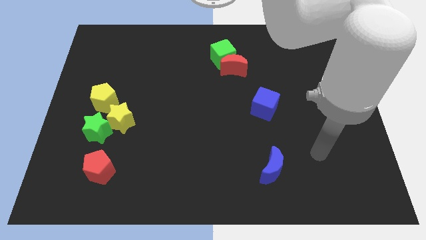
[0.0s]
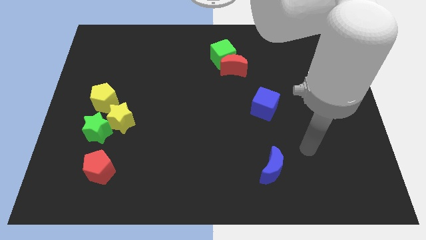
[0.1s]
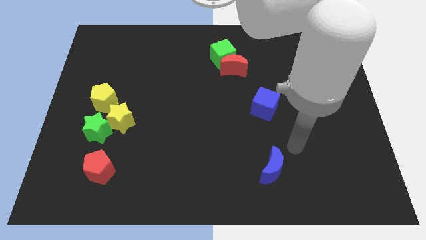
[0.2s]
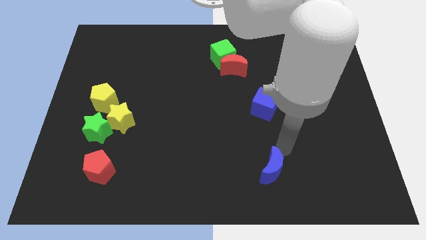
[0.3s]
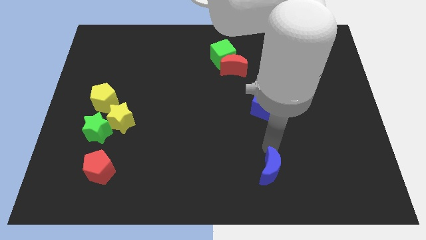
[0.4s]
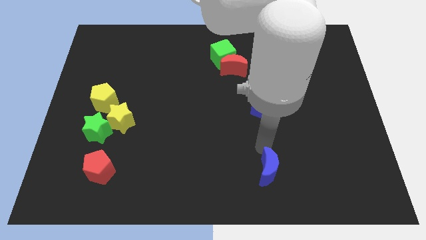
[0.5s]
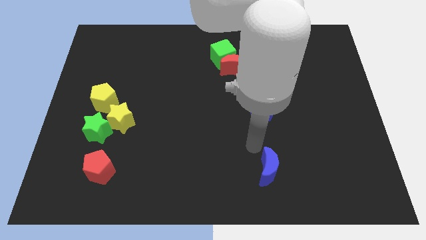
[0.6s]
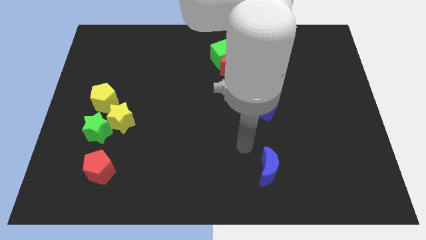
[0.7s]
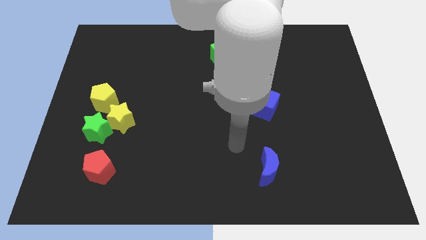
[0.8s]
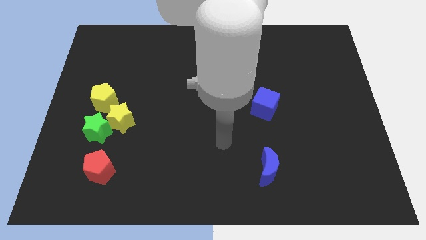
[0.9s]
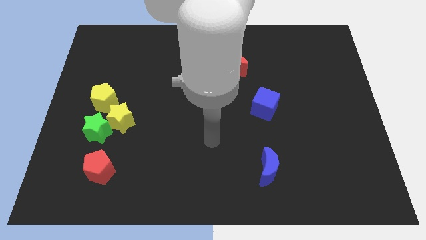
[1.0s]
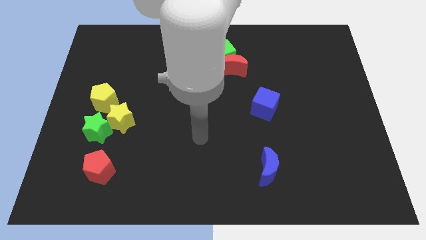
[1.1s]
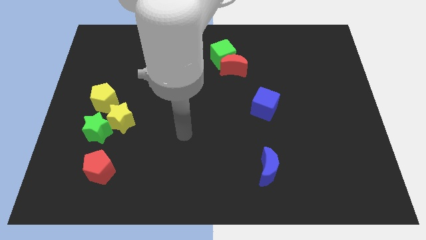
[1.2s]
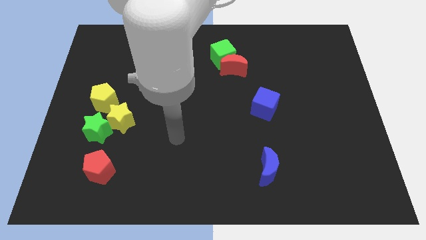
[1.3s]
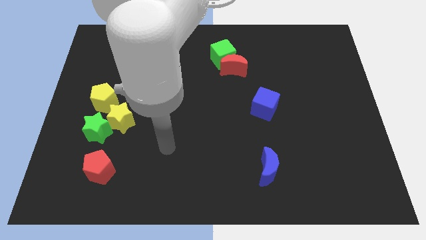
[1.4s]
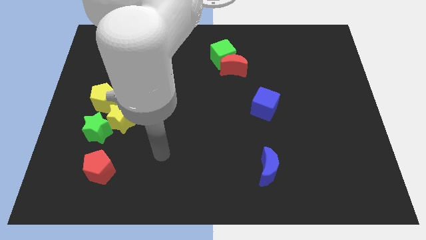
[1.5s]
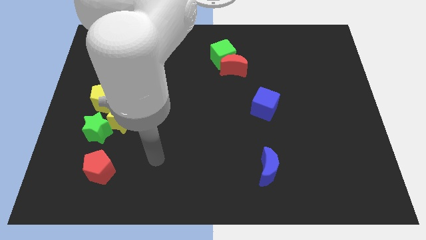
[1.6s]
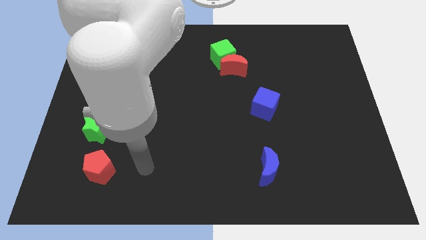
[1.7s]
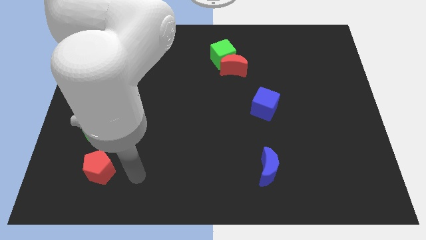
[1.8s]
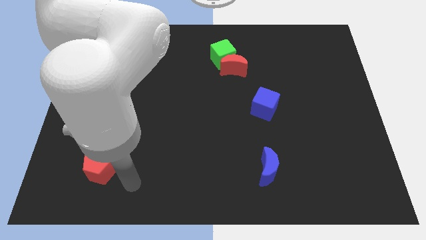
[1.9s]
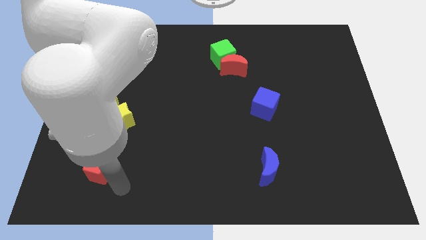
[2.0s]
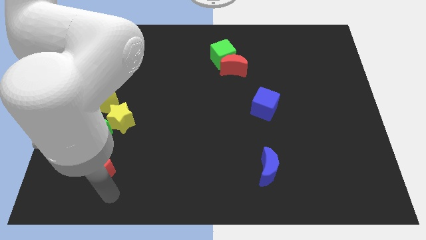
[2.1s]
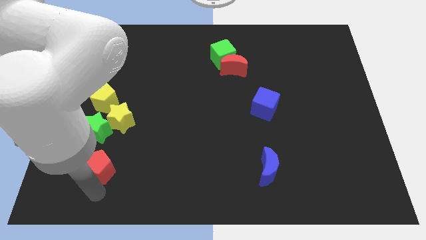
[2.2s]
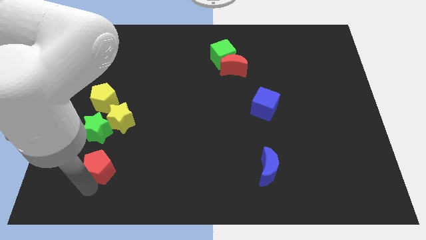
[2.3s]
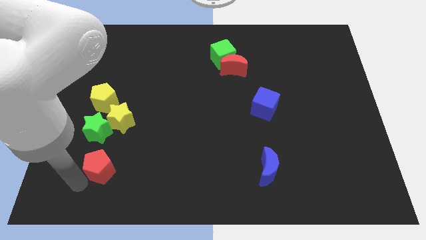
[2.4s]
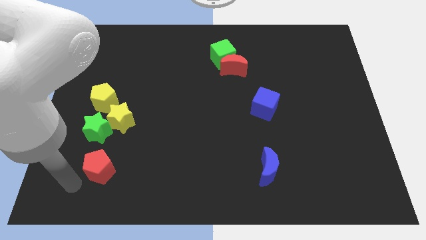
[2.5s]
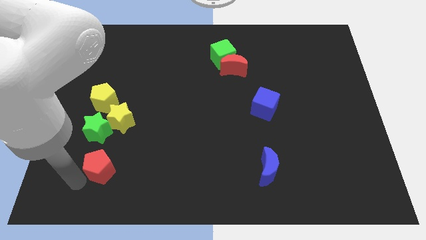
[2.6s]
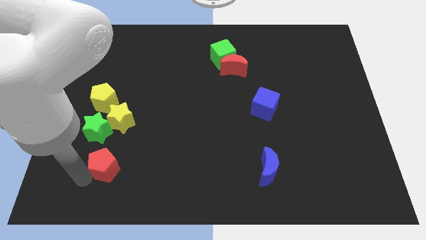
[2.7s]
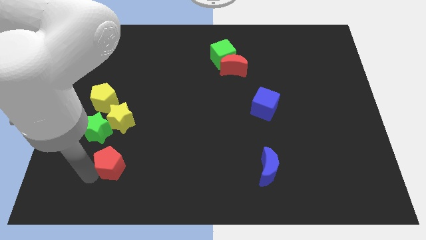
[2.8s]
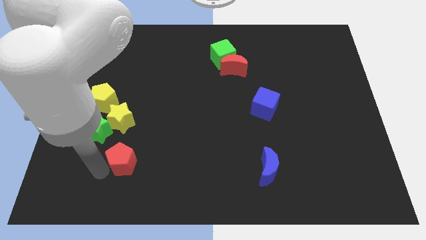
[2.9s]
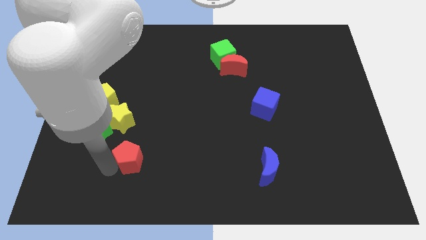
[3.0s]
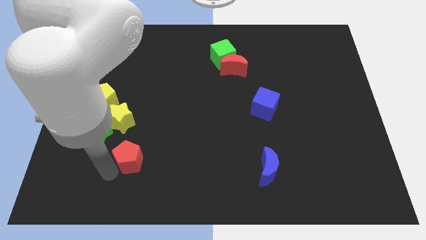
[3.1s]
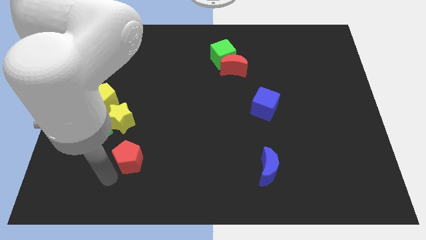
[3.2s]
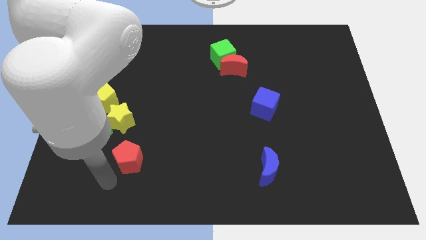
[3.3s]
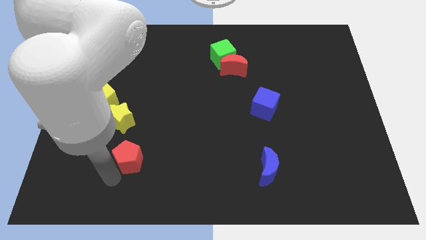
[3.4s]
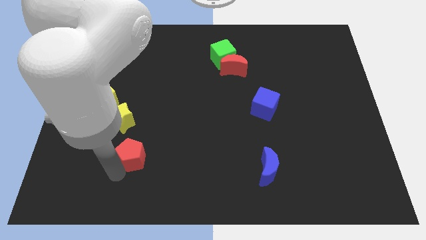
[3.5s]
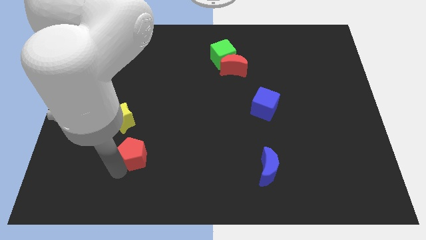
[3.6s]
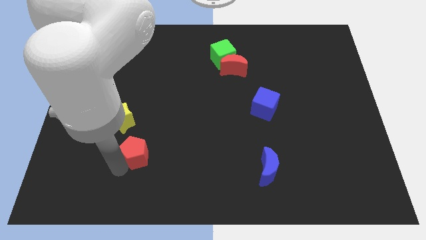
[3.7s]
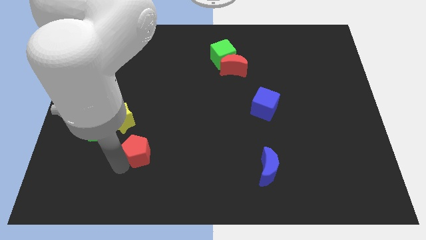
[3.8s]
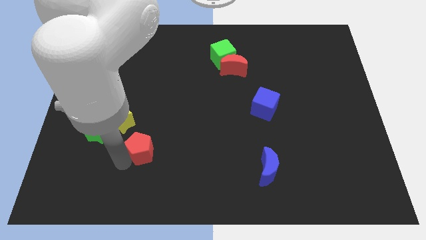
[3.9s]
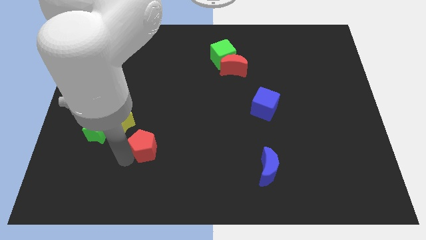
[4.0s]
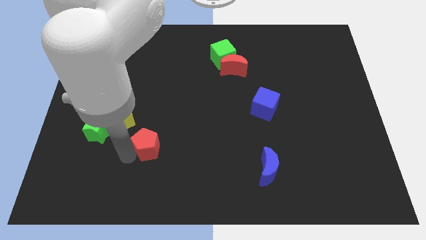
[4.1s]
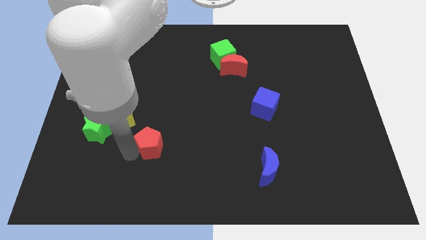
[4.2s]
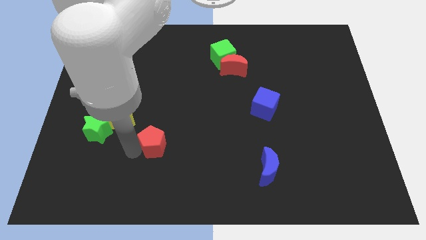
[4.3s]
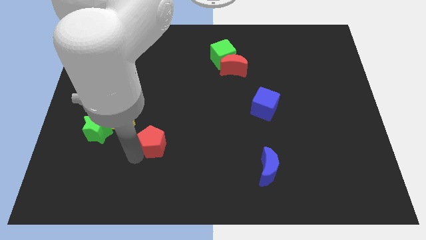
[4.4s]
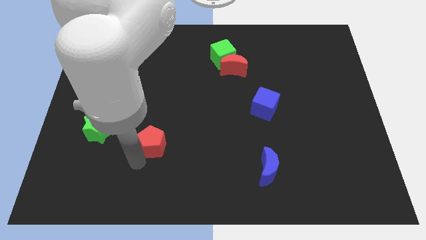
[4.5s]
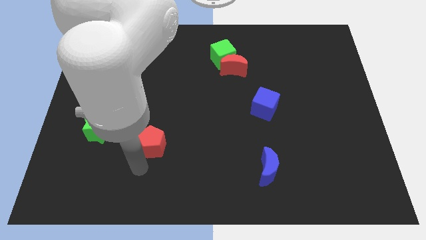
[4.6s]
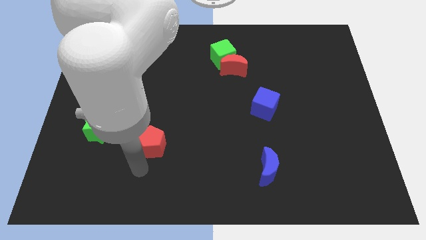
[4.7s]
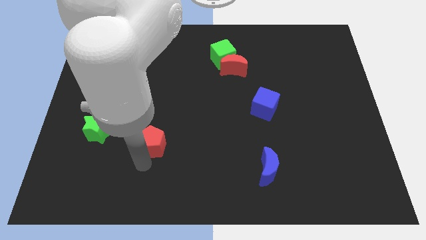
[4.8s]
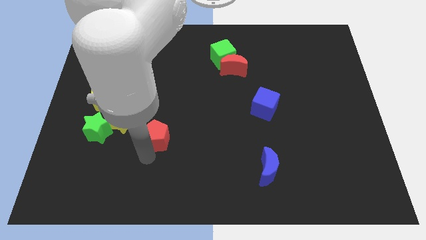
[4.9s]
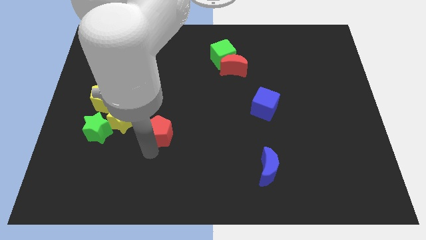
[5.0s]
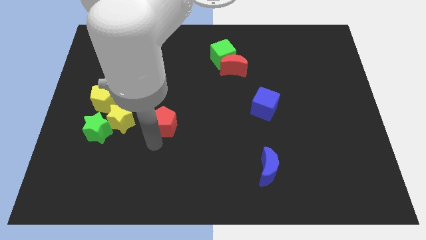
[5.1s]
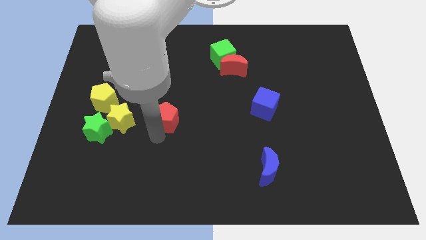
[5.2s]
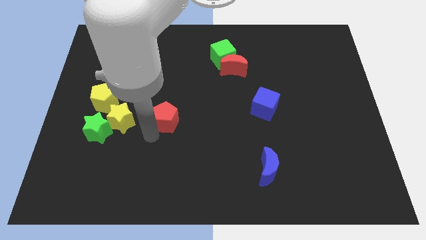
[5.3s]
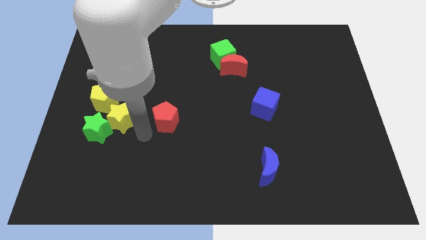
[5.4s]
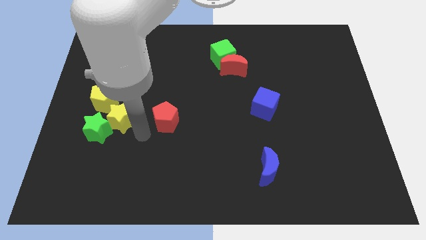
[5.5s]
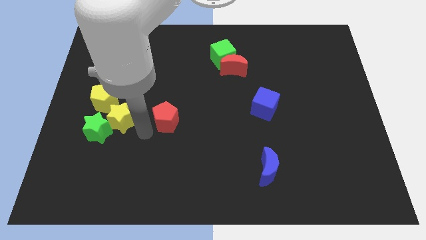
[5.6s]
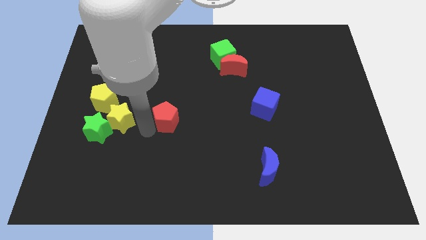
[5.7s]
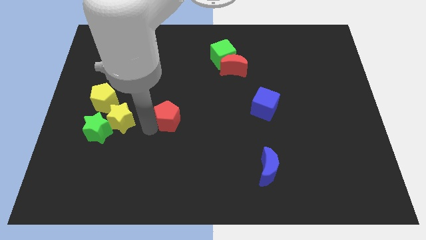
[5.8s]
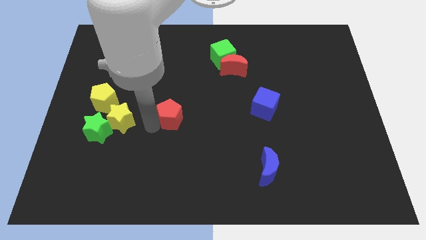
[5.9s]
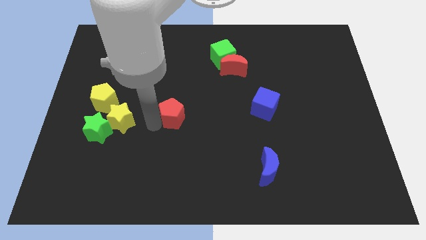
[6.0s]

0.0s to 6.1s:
push the red pentagon up and to the right

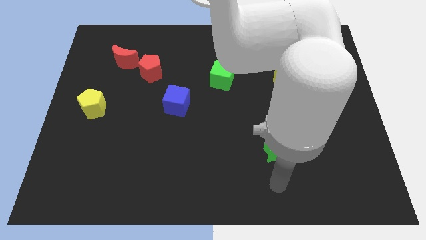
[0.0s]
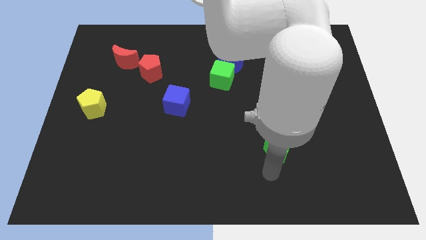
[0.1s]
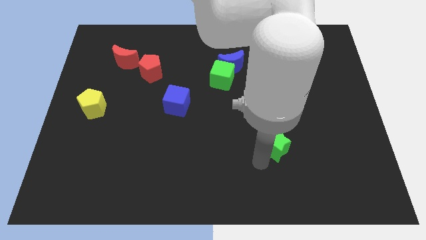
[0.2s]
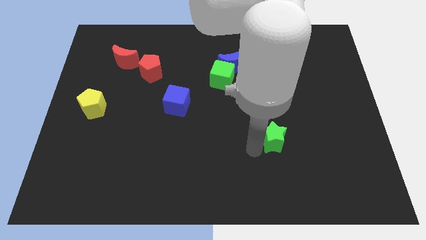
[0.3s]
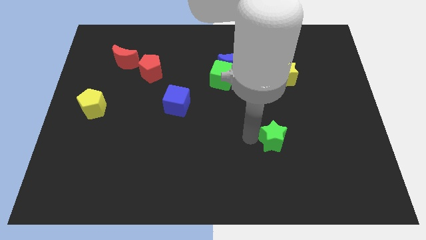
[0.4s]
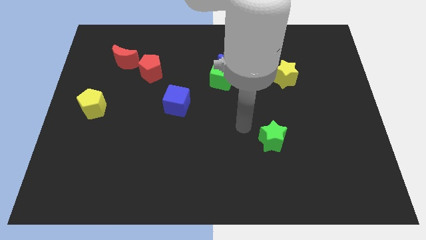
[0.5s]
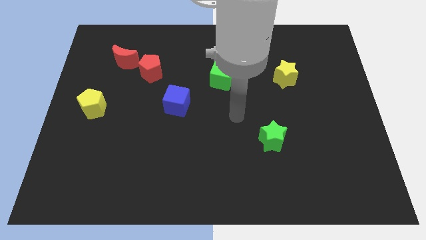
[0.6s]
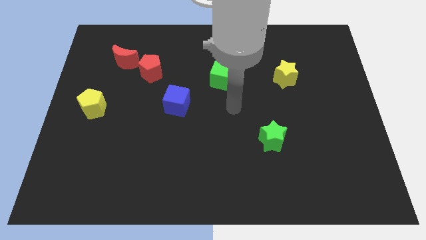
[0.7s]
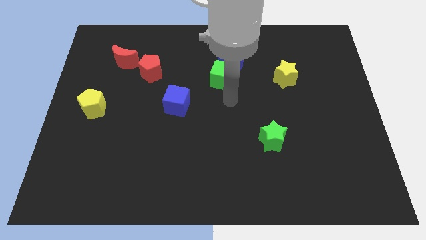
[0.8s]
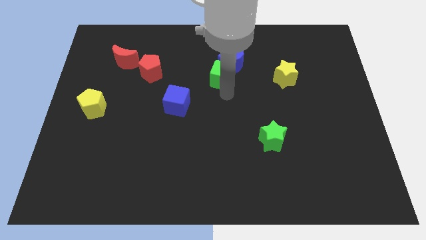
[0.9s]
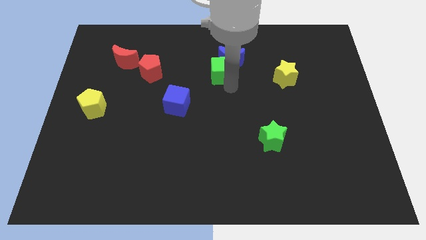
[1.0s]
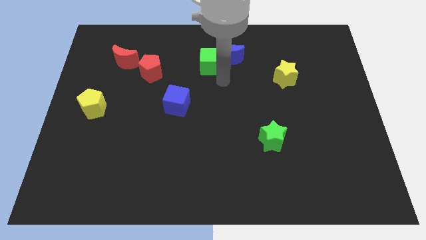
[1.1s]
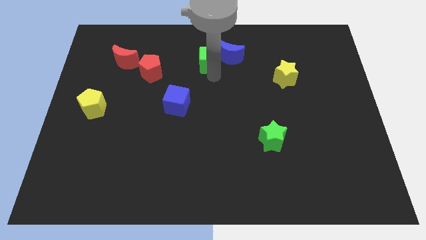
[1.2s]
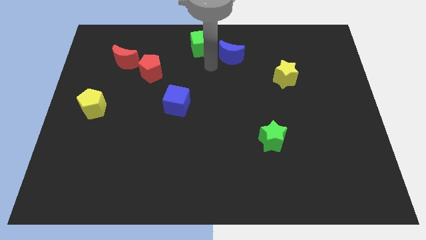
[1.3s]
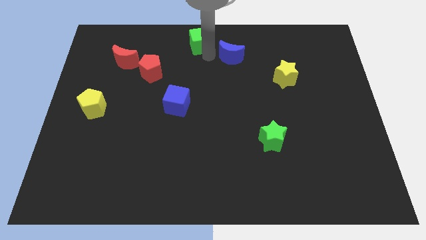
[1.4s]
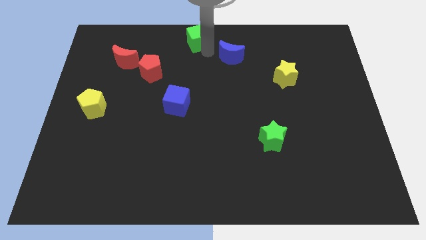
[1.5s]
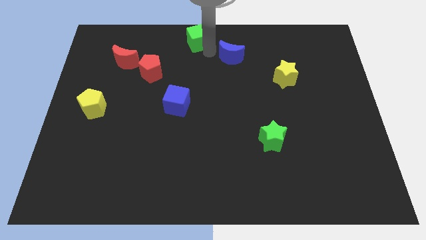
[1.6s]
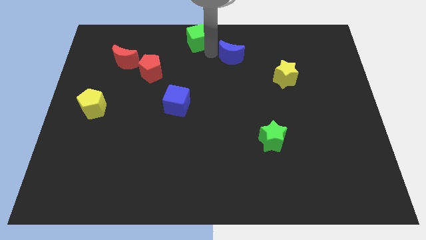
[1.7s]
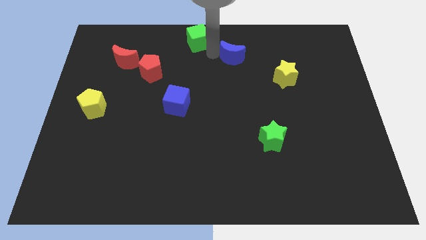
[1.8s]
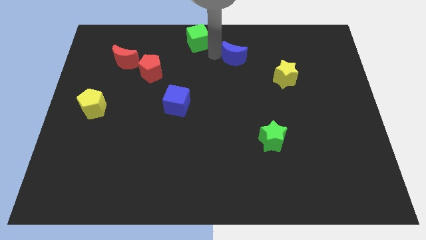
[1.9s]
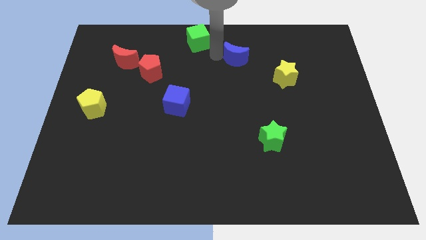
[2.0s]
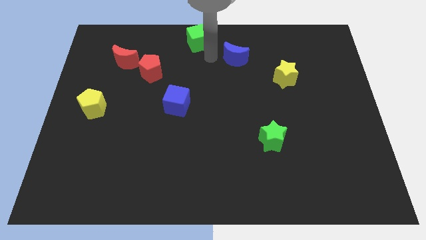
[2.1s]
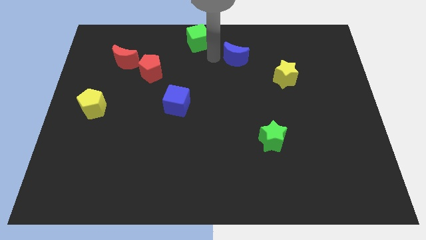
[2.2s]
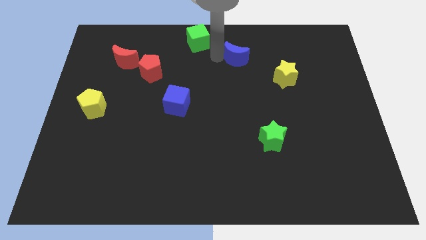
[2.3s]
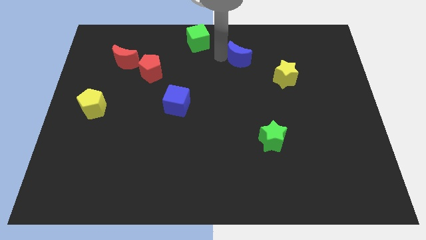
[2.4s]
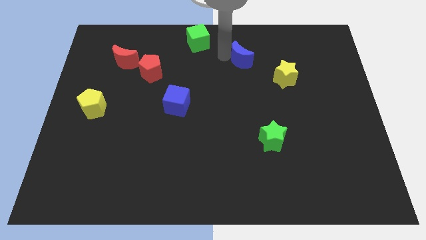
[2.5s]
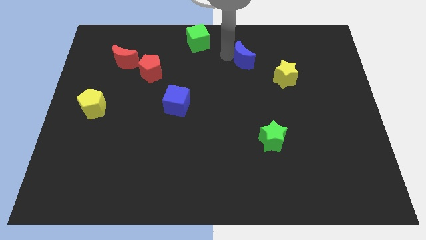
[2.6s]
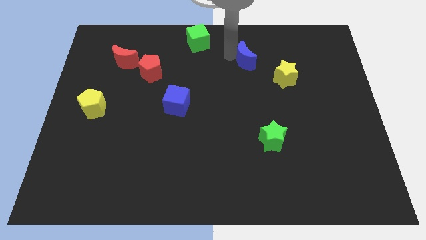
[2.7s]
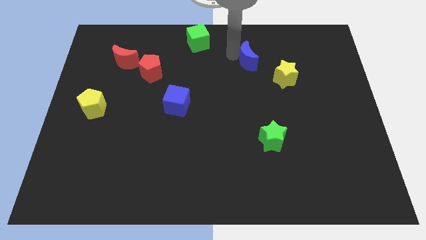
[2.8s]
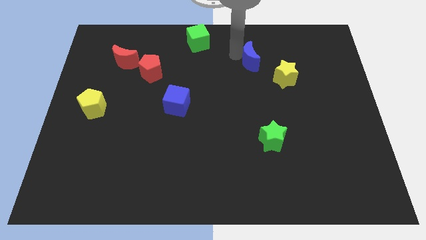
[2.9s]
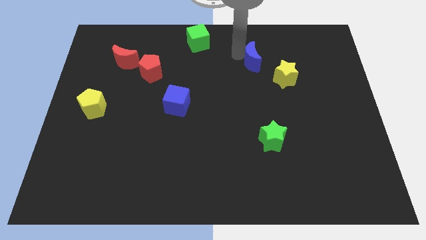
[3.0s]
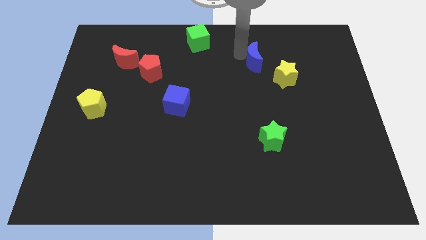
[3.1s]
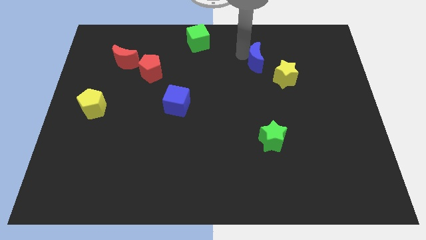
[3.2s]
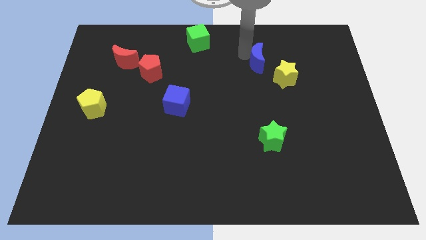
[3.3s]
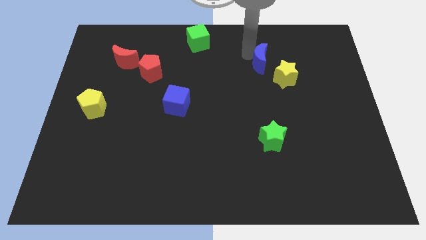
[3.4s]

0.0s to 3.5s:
move the blue moon right somewhat
